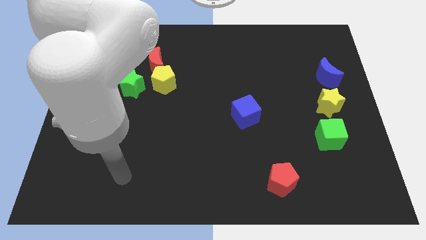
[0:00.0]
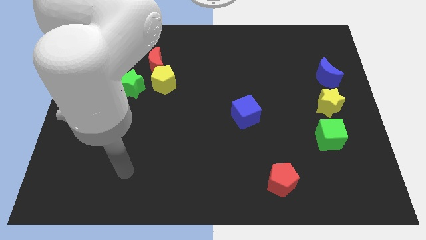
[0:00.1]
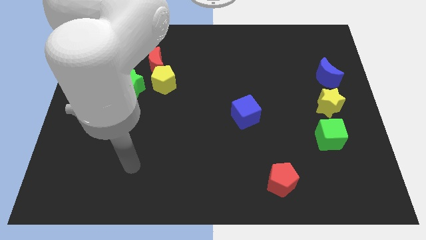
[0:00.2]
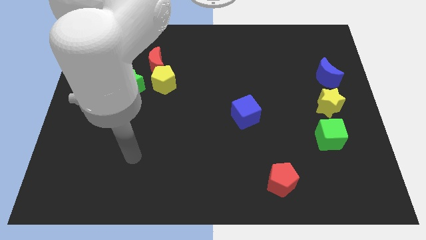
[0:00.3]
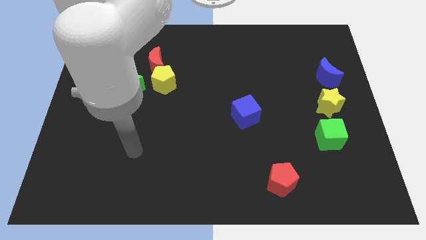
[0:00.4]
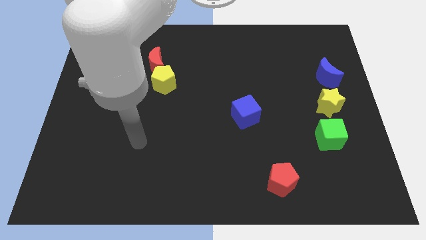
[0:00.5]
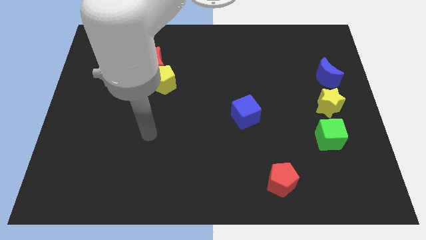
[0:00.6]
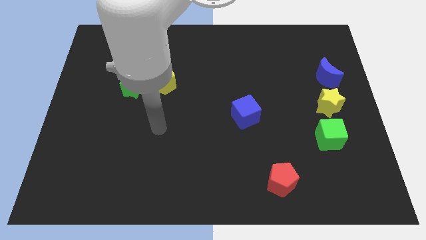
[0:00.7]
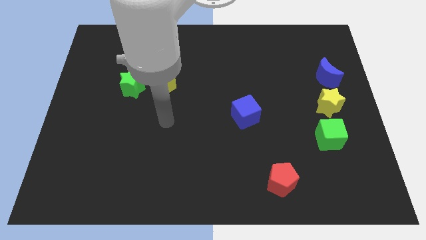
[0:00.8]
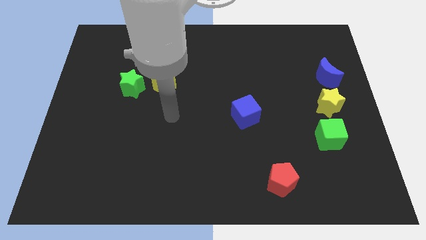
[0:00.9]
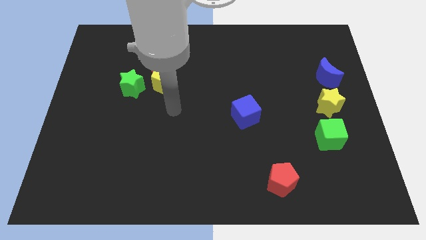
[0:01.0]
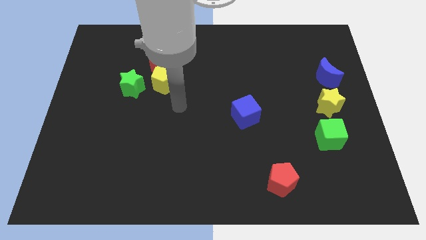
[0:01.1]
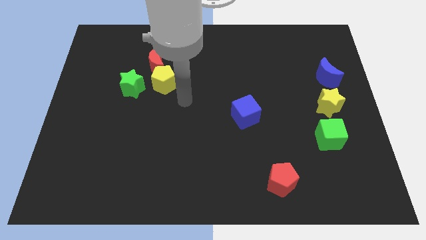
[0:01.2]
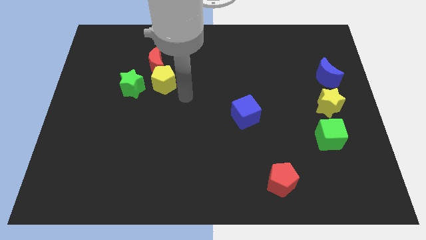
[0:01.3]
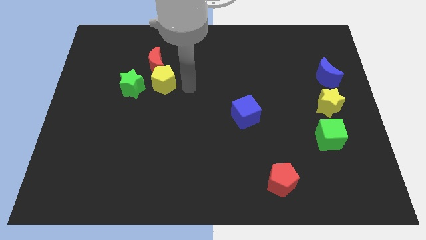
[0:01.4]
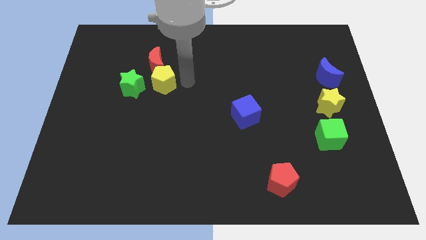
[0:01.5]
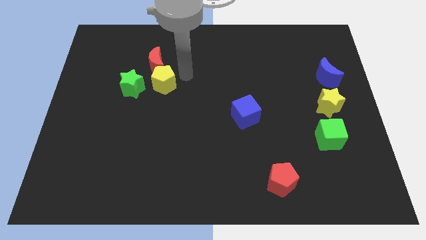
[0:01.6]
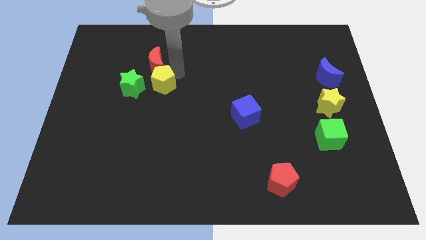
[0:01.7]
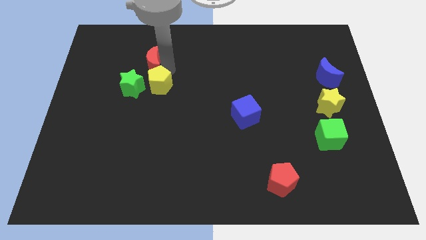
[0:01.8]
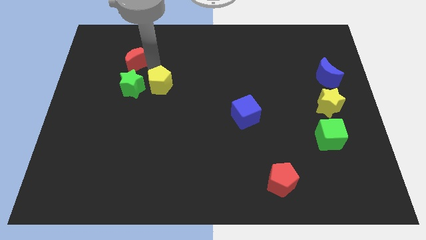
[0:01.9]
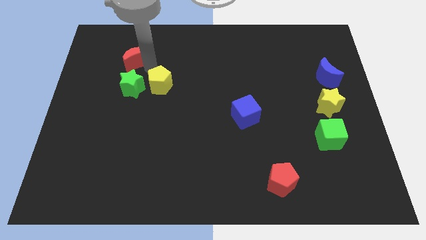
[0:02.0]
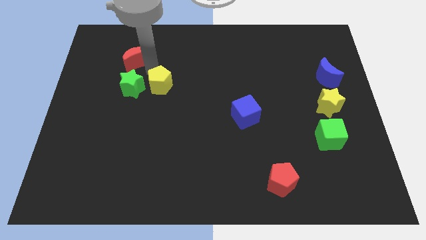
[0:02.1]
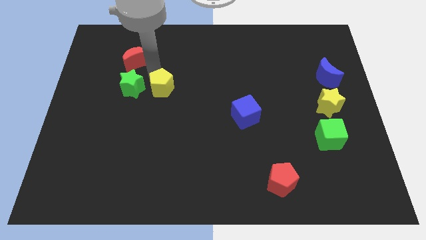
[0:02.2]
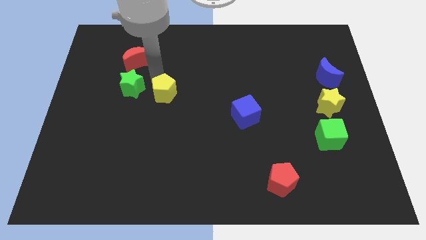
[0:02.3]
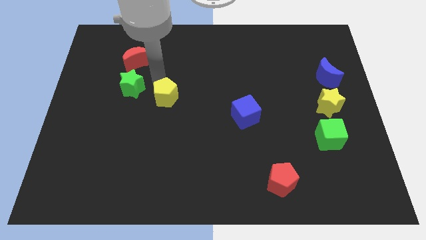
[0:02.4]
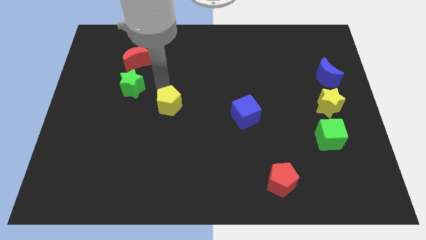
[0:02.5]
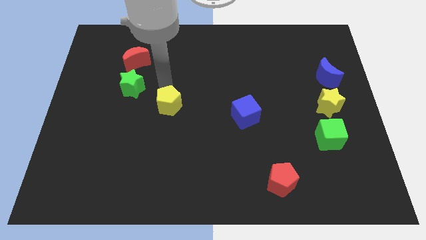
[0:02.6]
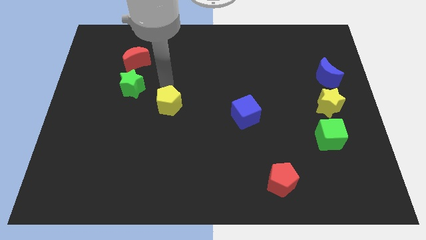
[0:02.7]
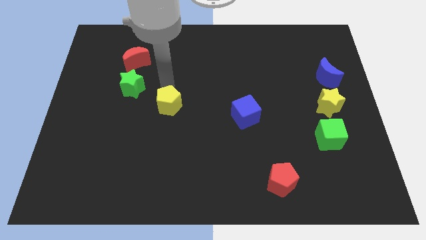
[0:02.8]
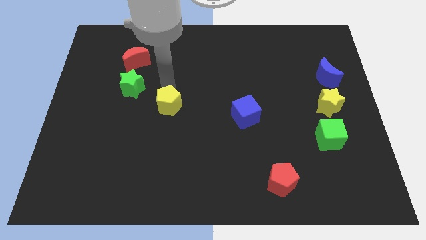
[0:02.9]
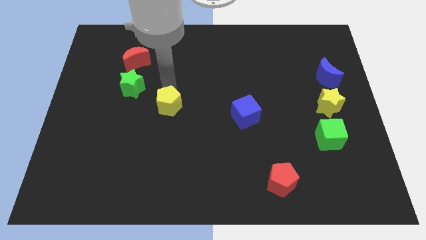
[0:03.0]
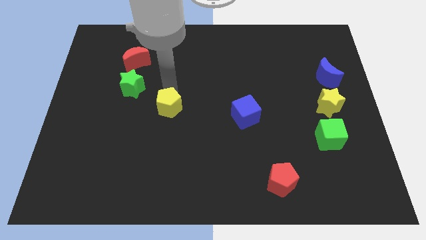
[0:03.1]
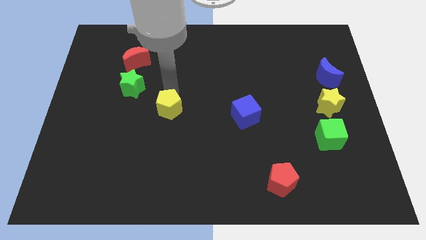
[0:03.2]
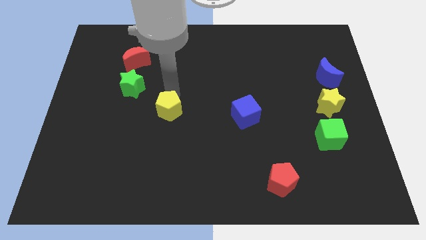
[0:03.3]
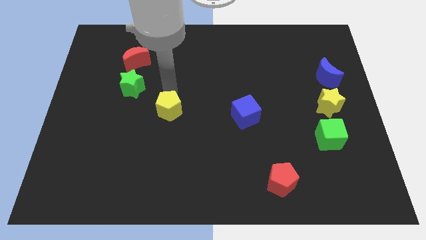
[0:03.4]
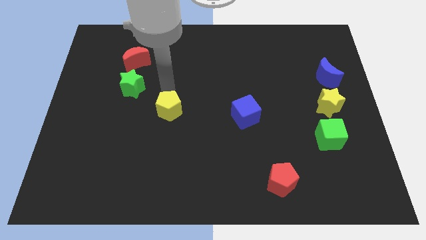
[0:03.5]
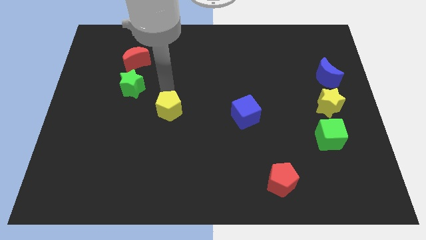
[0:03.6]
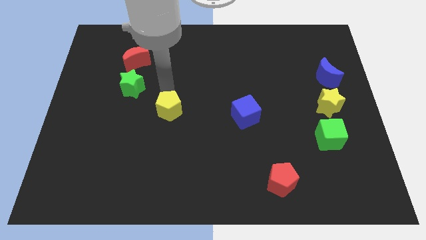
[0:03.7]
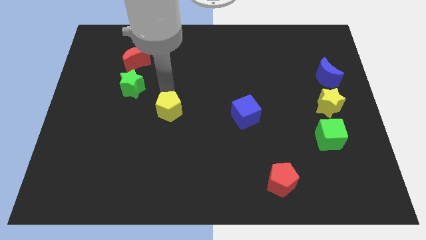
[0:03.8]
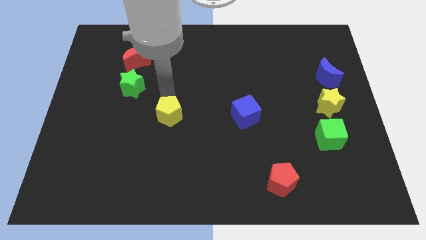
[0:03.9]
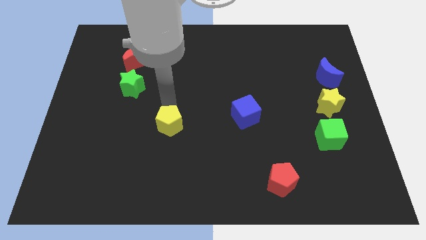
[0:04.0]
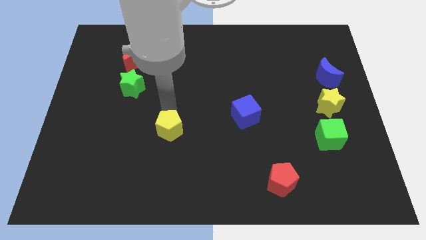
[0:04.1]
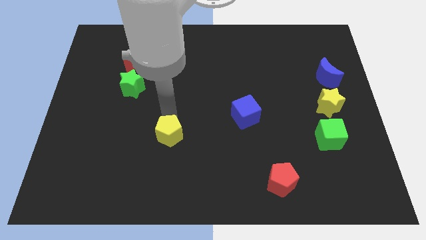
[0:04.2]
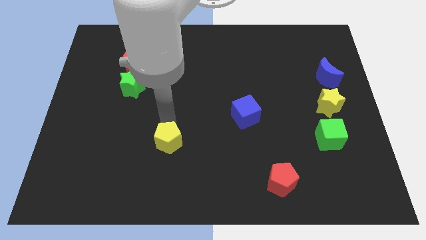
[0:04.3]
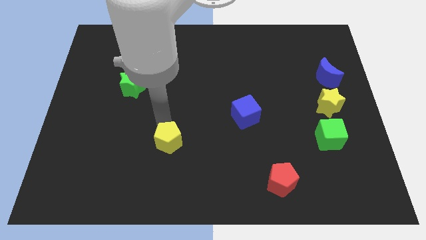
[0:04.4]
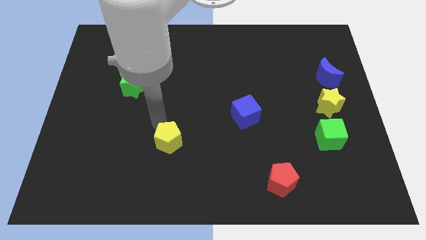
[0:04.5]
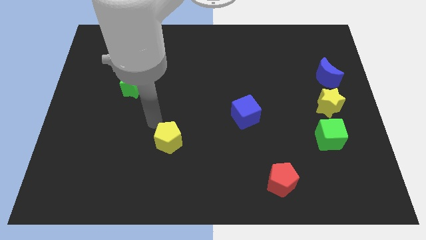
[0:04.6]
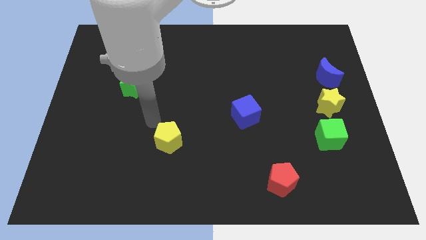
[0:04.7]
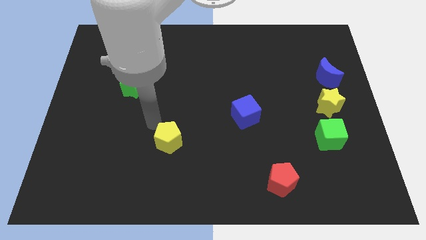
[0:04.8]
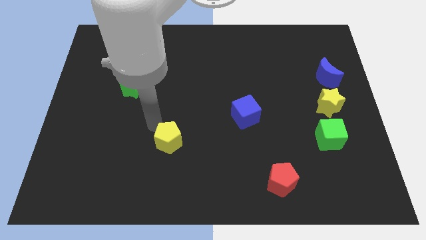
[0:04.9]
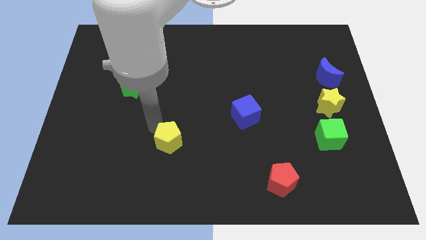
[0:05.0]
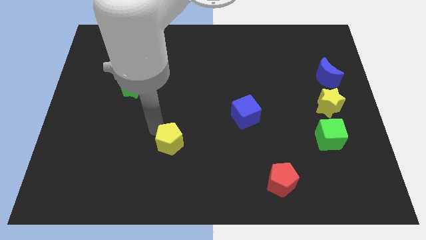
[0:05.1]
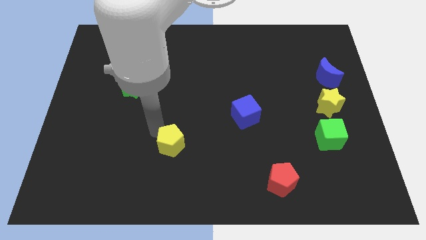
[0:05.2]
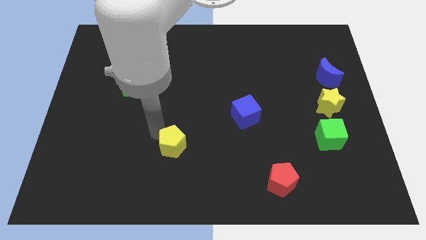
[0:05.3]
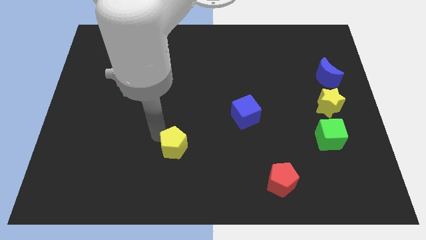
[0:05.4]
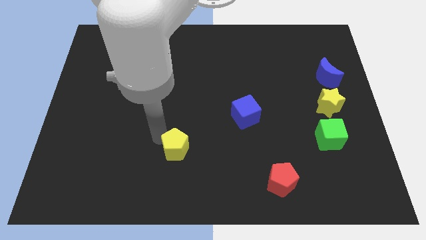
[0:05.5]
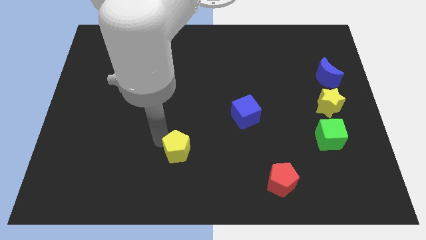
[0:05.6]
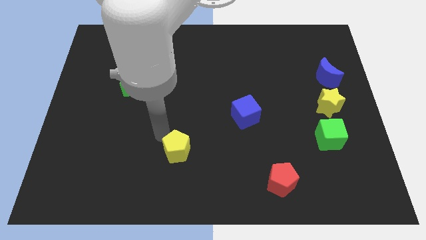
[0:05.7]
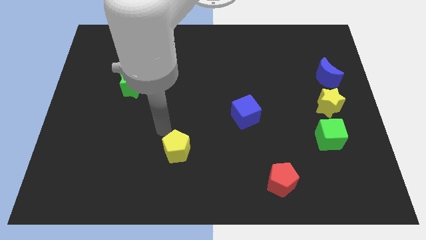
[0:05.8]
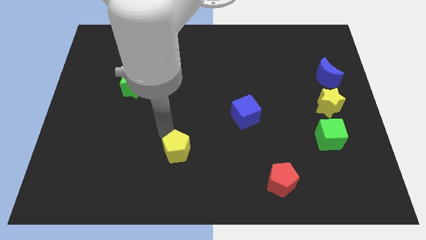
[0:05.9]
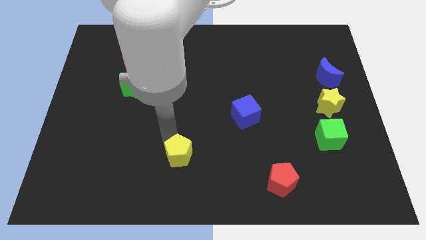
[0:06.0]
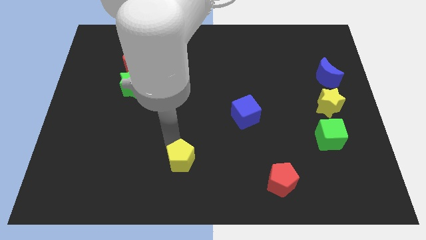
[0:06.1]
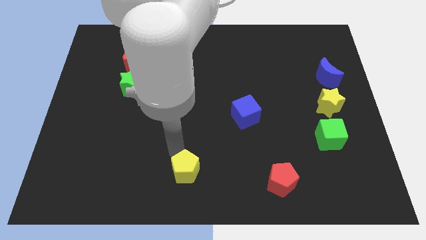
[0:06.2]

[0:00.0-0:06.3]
put the yellow pentagon to the bottom

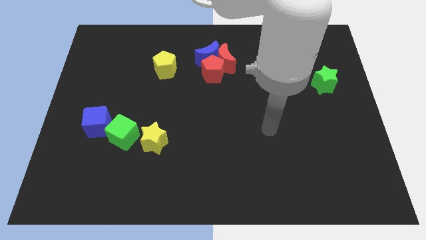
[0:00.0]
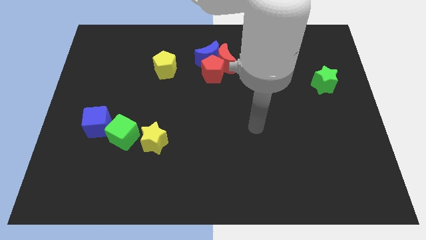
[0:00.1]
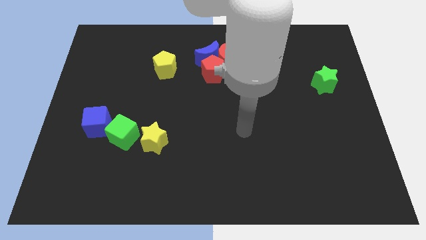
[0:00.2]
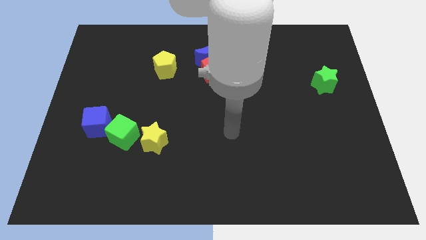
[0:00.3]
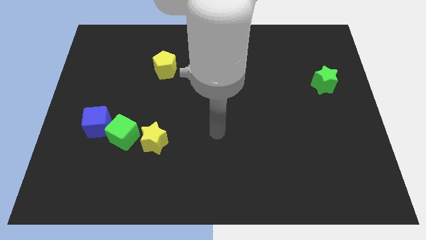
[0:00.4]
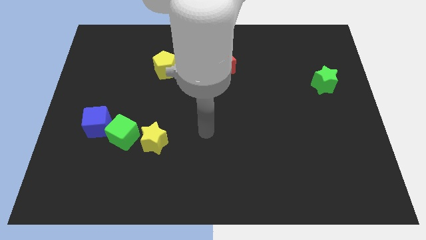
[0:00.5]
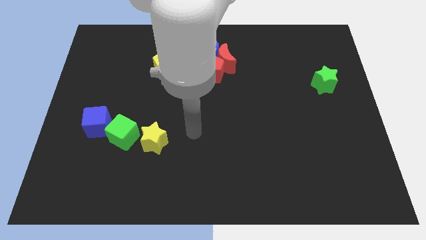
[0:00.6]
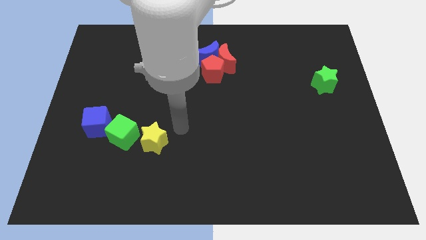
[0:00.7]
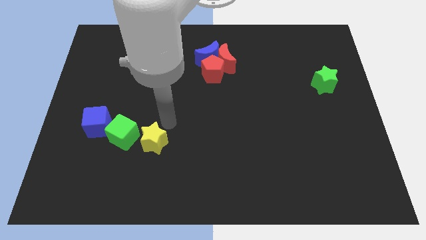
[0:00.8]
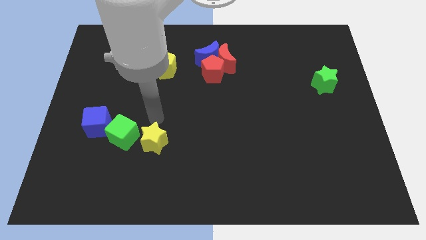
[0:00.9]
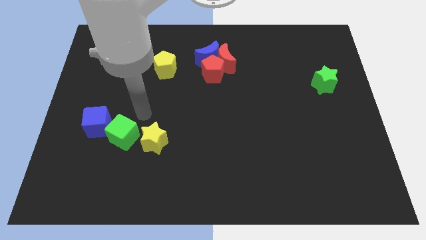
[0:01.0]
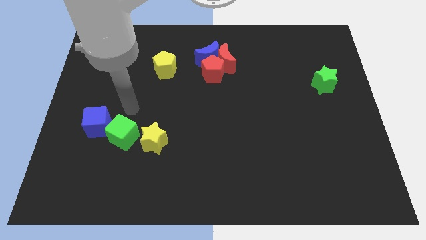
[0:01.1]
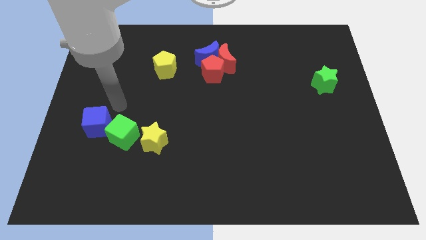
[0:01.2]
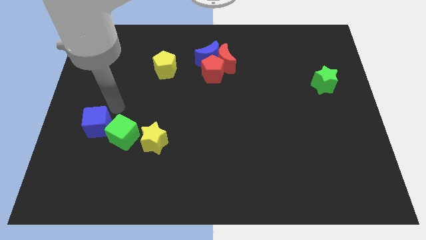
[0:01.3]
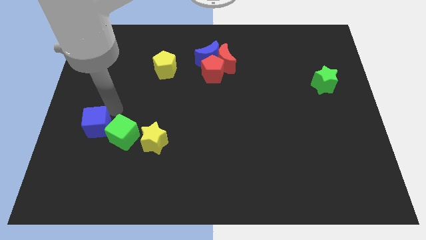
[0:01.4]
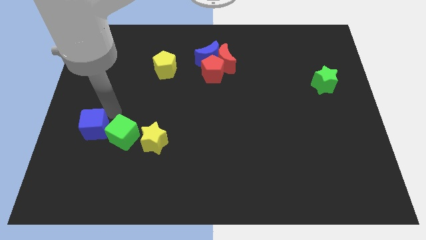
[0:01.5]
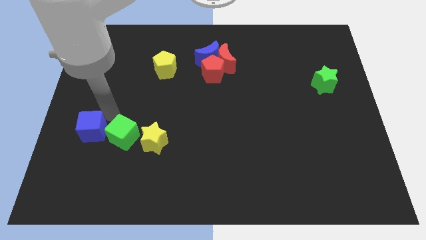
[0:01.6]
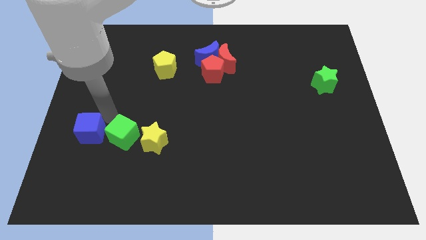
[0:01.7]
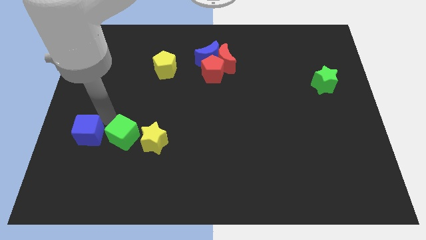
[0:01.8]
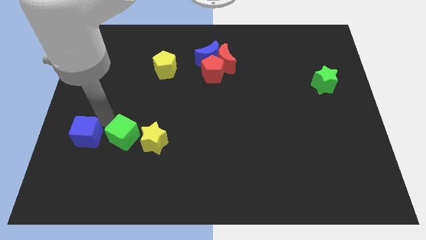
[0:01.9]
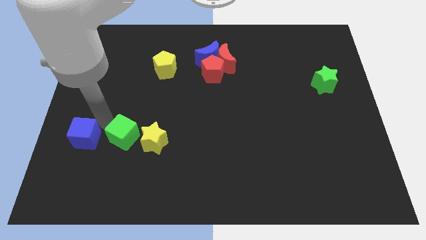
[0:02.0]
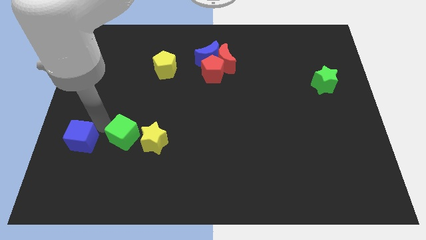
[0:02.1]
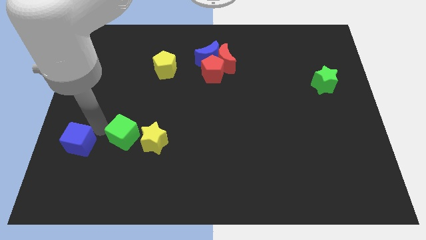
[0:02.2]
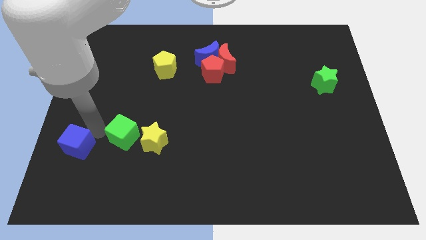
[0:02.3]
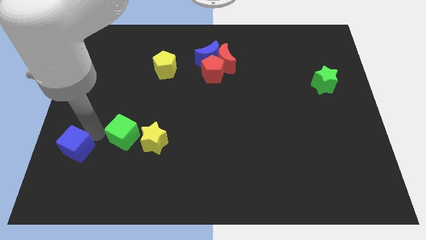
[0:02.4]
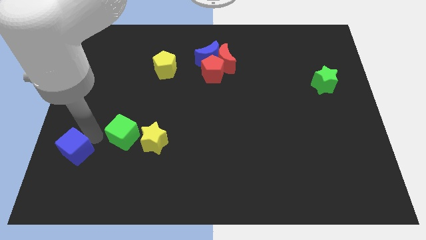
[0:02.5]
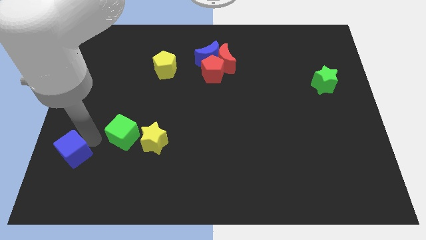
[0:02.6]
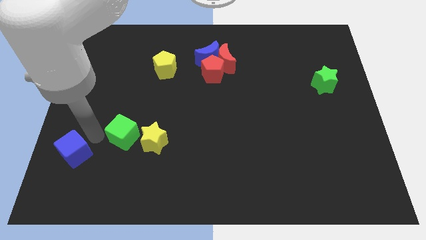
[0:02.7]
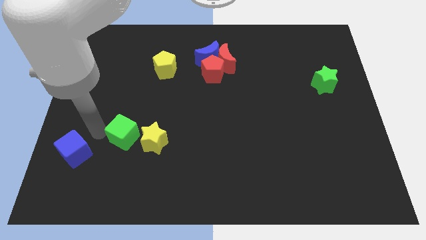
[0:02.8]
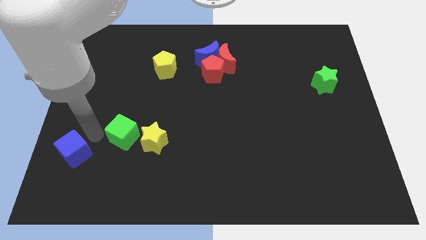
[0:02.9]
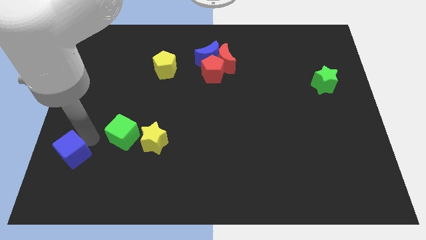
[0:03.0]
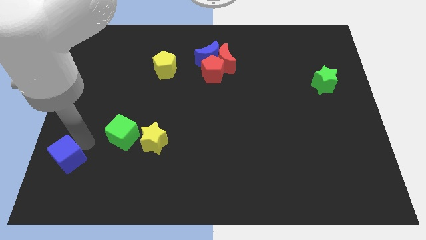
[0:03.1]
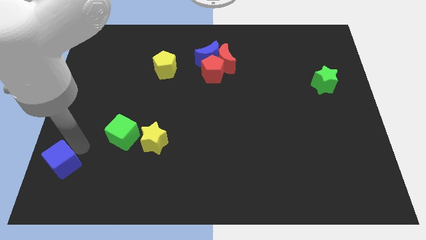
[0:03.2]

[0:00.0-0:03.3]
move the blue cube to the bottom left
